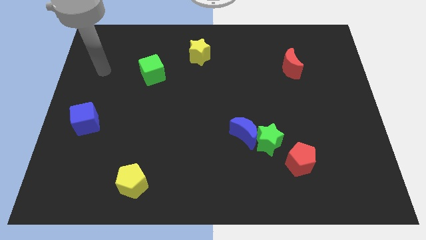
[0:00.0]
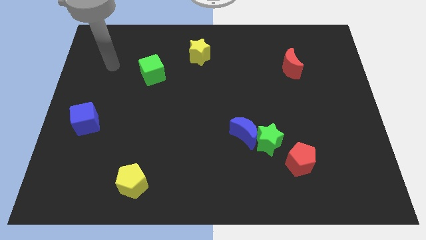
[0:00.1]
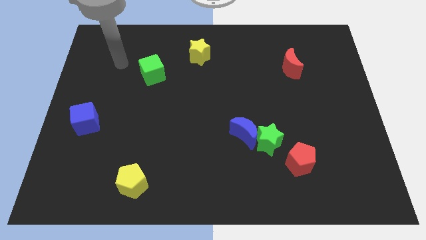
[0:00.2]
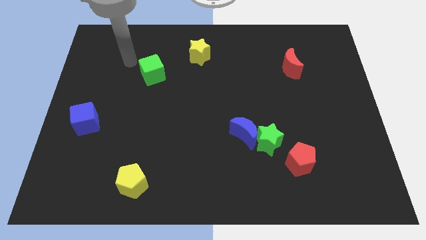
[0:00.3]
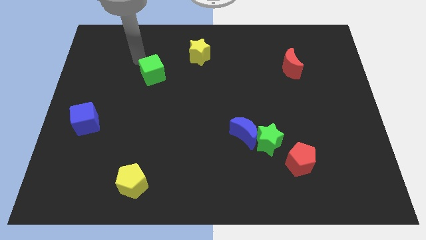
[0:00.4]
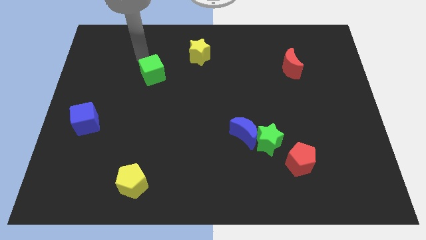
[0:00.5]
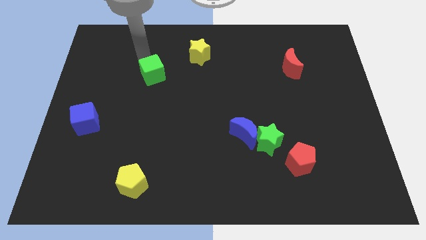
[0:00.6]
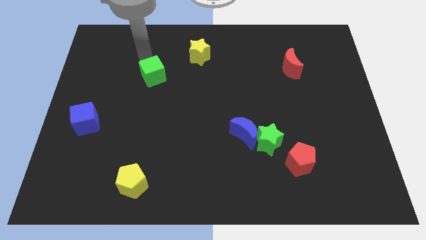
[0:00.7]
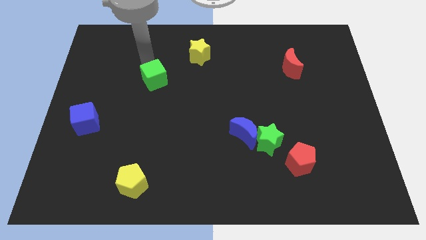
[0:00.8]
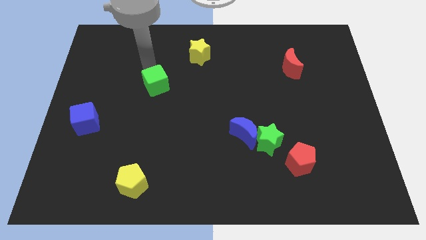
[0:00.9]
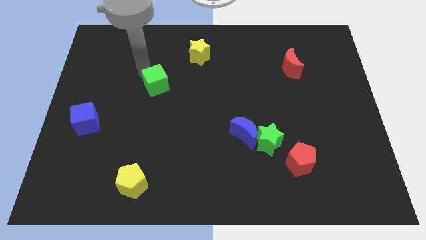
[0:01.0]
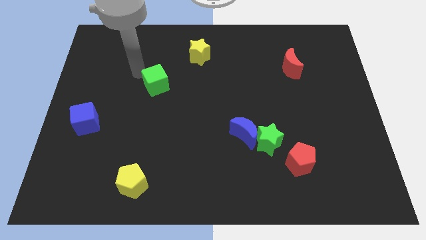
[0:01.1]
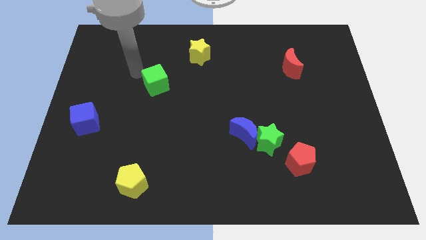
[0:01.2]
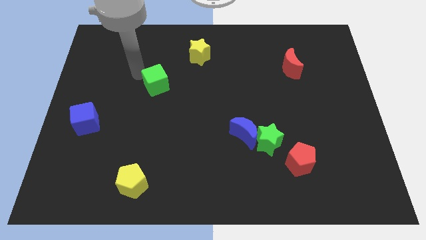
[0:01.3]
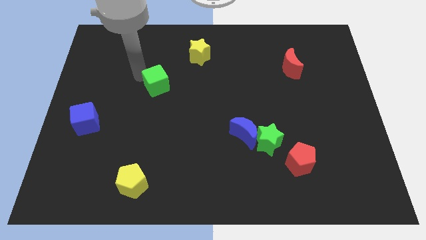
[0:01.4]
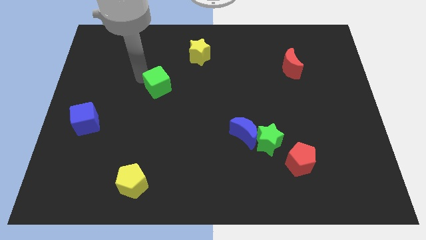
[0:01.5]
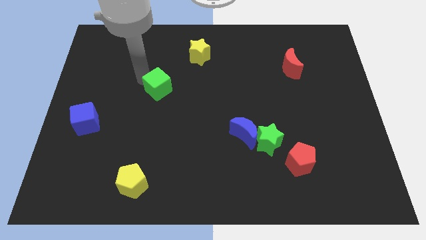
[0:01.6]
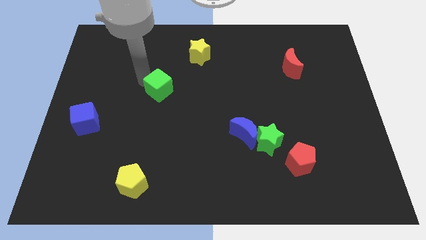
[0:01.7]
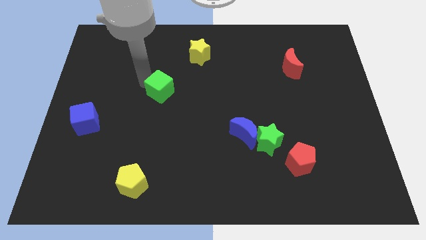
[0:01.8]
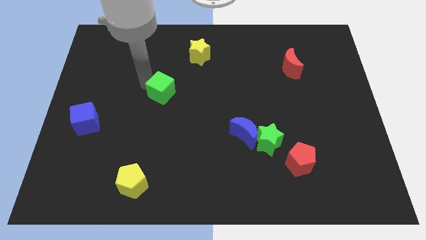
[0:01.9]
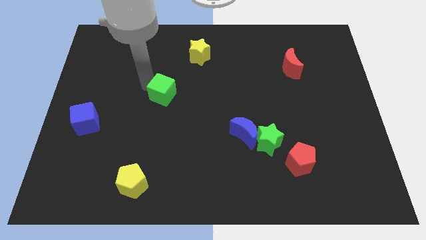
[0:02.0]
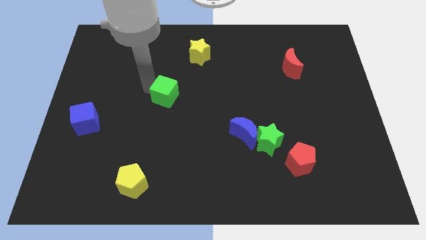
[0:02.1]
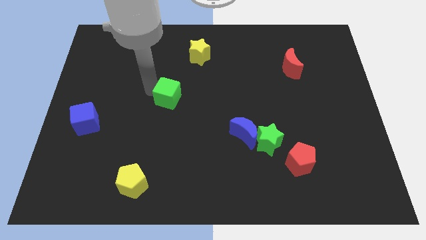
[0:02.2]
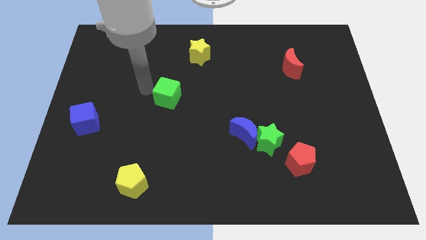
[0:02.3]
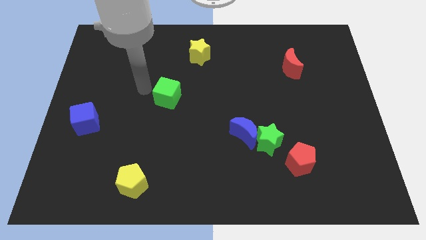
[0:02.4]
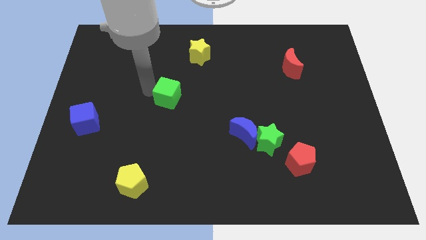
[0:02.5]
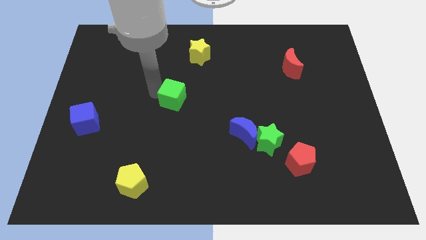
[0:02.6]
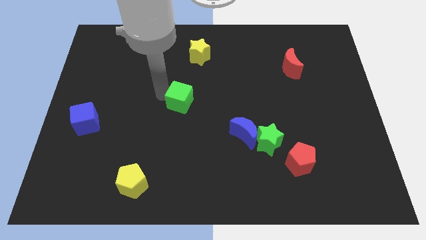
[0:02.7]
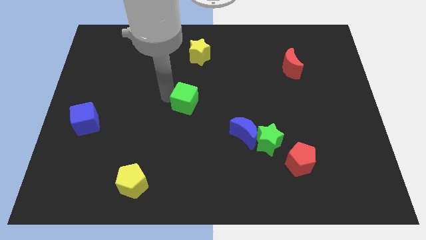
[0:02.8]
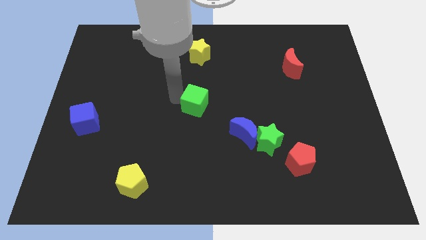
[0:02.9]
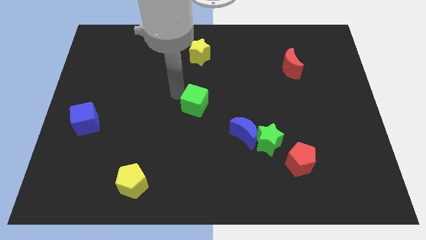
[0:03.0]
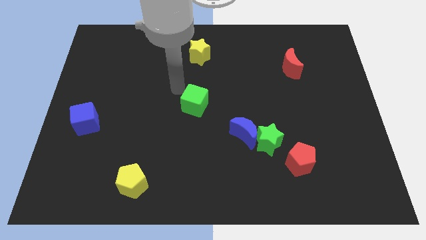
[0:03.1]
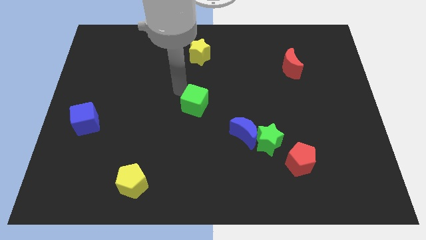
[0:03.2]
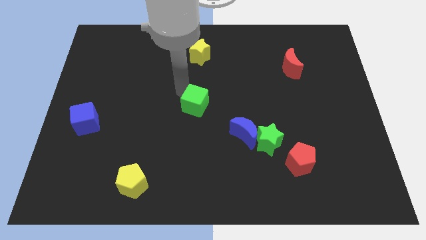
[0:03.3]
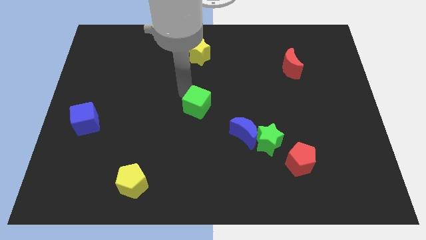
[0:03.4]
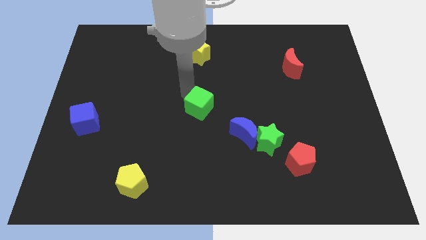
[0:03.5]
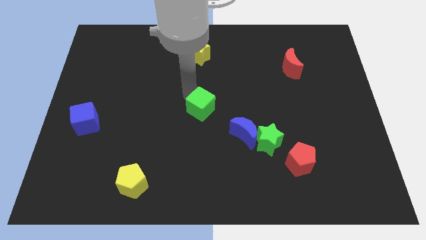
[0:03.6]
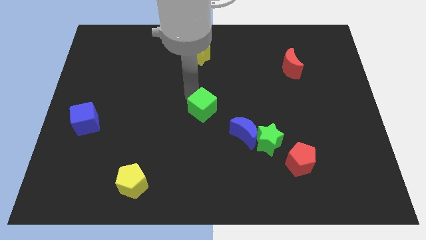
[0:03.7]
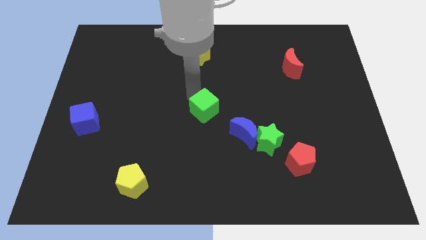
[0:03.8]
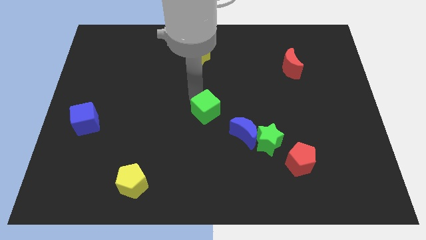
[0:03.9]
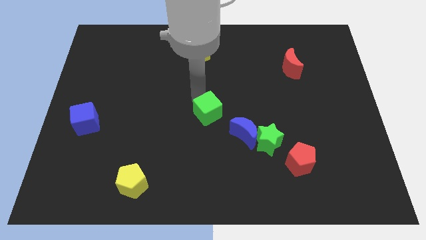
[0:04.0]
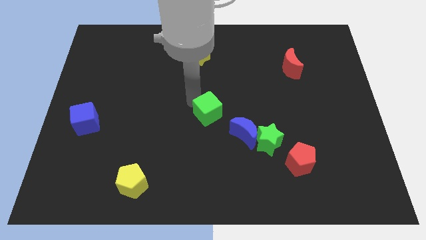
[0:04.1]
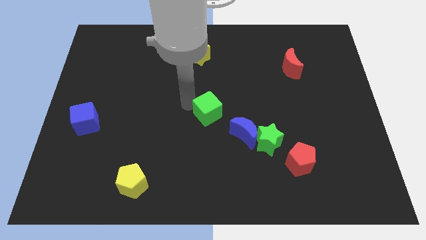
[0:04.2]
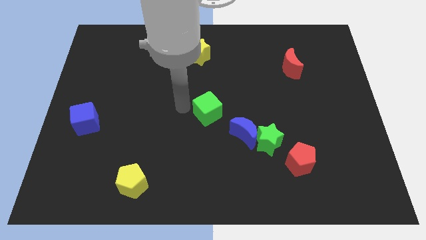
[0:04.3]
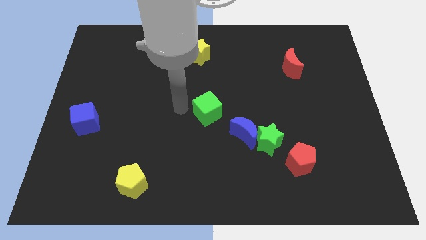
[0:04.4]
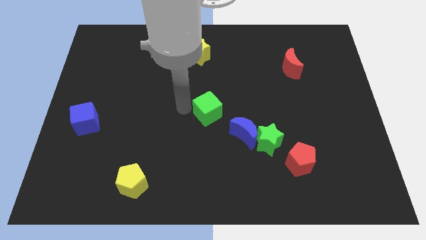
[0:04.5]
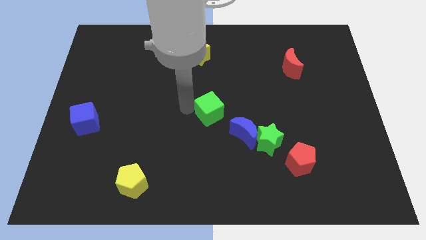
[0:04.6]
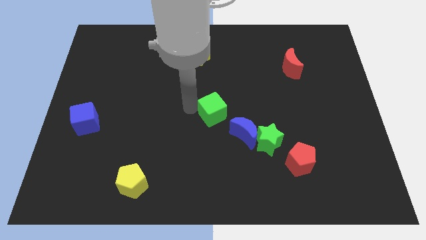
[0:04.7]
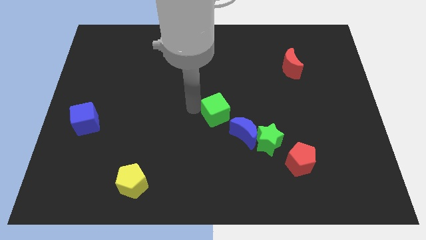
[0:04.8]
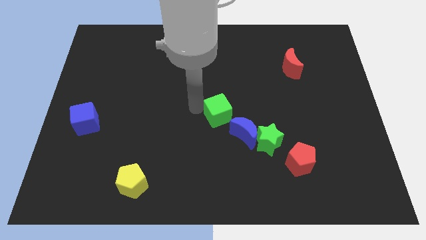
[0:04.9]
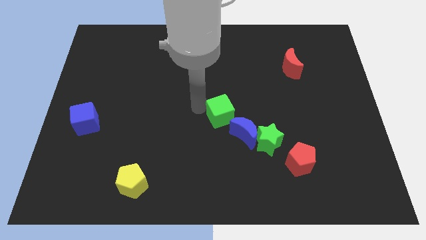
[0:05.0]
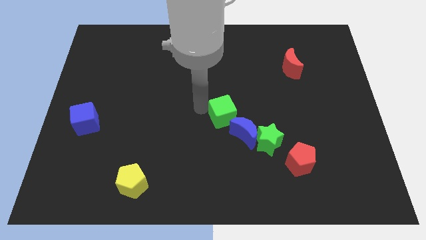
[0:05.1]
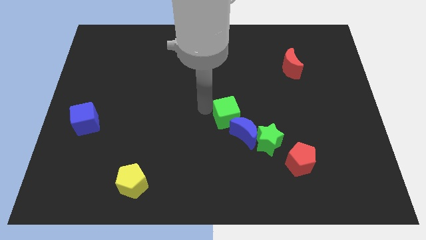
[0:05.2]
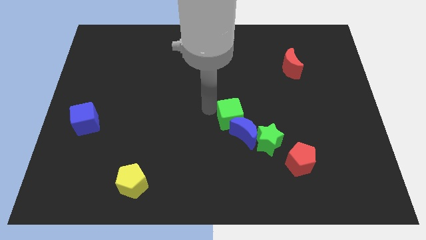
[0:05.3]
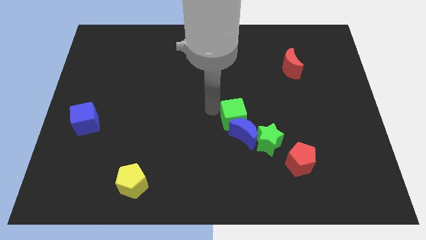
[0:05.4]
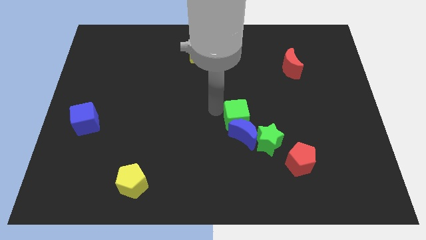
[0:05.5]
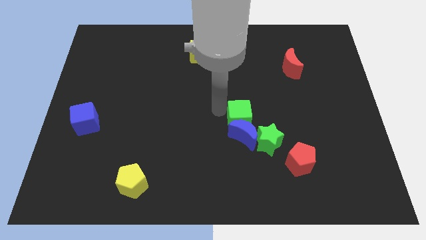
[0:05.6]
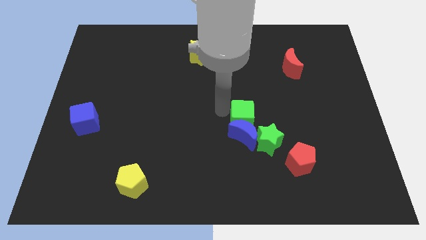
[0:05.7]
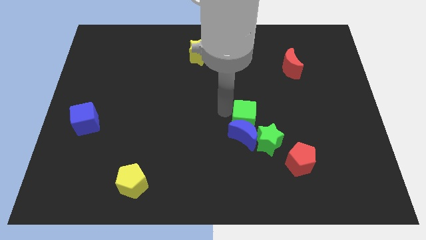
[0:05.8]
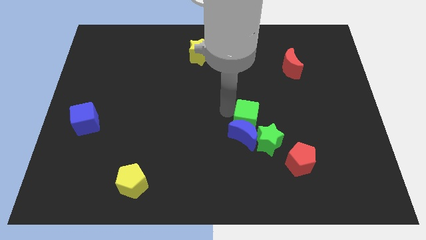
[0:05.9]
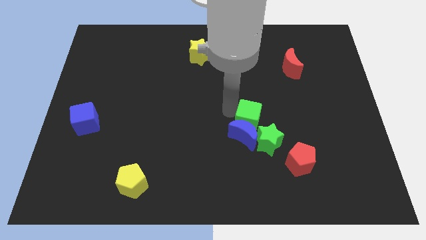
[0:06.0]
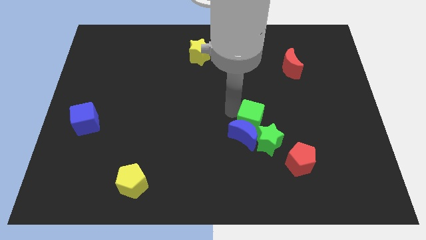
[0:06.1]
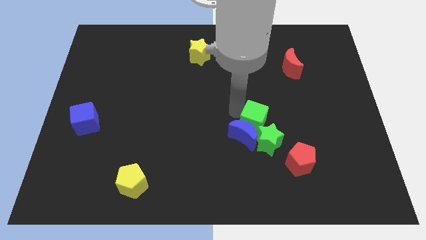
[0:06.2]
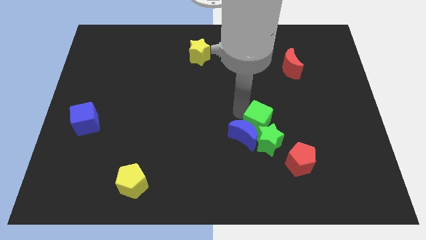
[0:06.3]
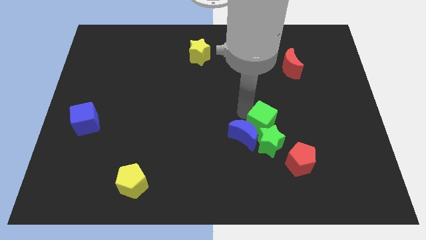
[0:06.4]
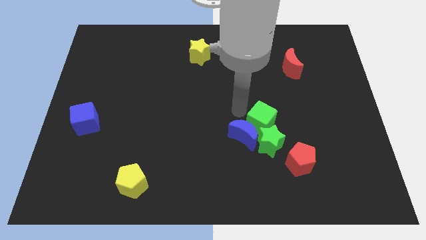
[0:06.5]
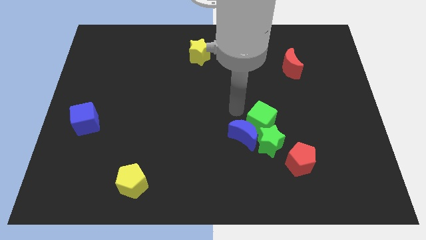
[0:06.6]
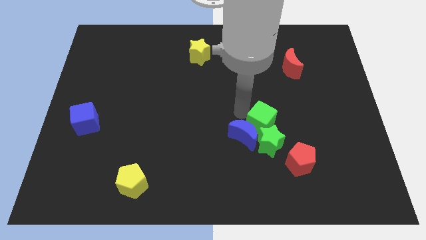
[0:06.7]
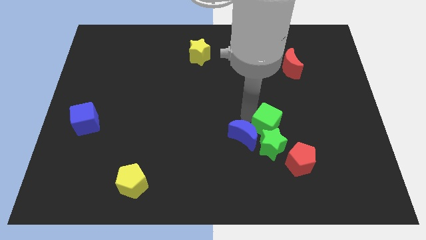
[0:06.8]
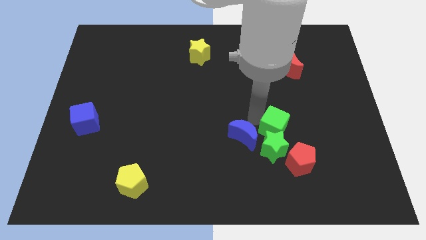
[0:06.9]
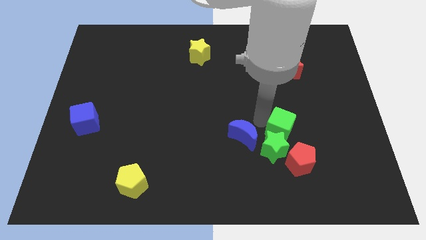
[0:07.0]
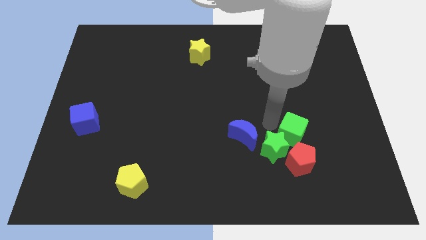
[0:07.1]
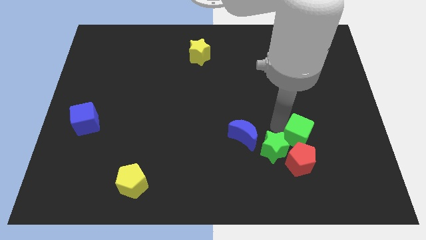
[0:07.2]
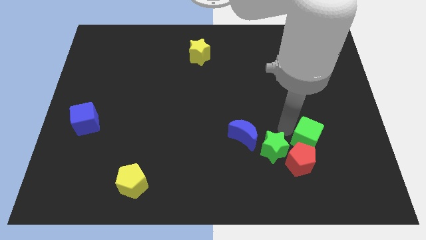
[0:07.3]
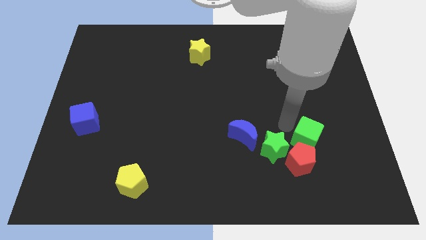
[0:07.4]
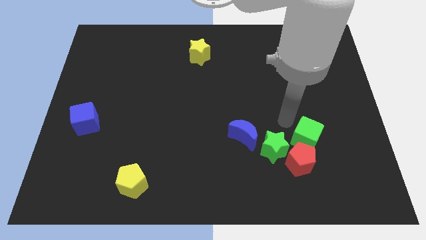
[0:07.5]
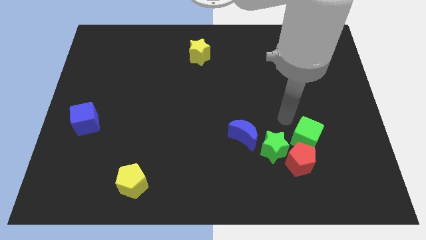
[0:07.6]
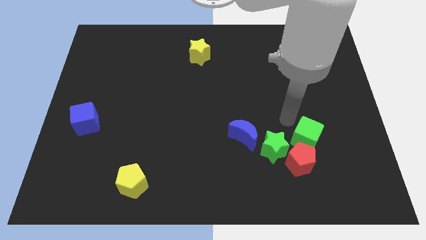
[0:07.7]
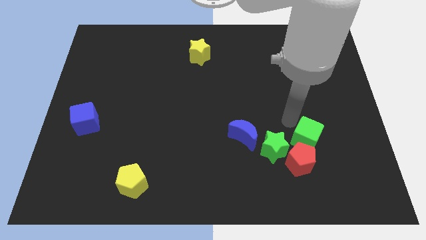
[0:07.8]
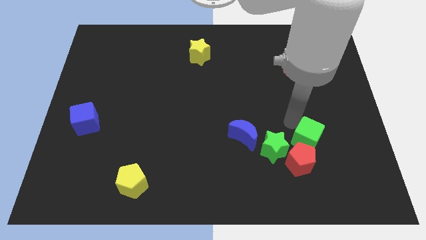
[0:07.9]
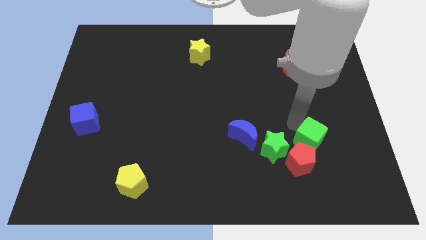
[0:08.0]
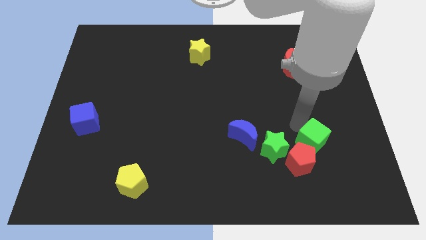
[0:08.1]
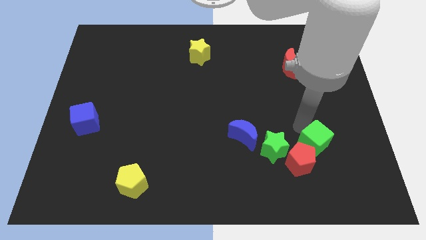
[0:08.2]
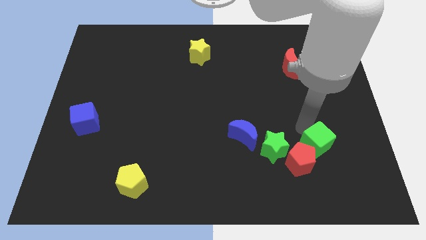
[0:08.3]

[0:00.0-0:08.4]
move the green cube just right of the red pentagon
